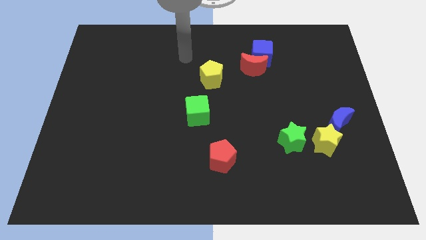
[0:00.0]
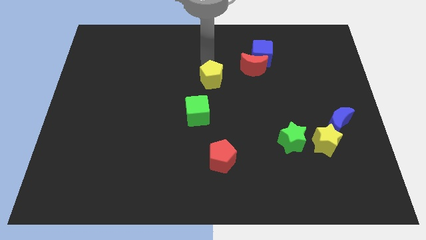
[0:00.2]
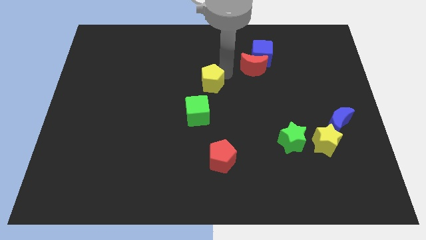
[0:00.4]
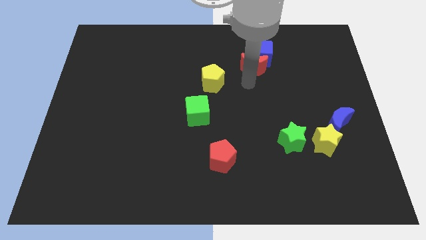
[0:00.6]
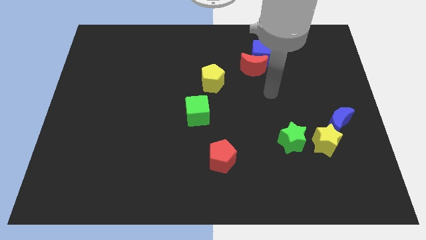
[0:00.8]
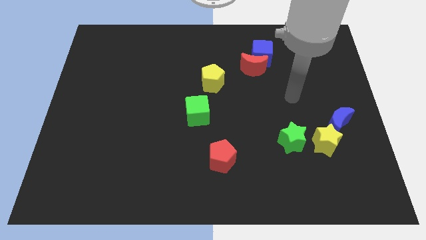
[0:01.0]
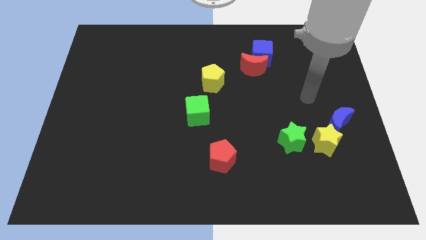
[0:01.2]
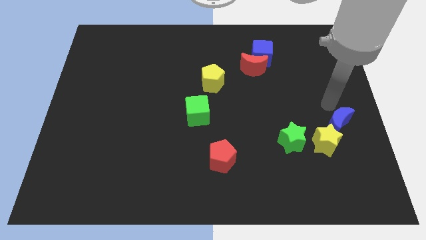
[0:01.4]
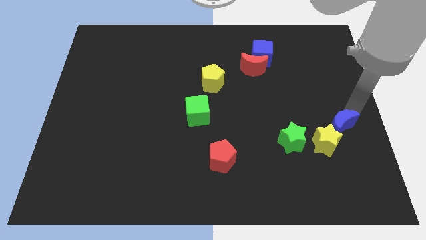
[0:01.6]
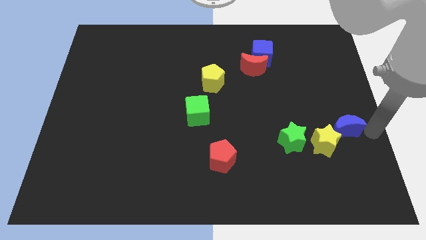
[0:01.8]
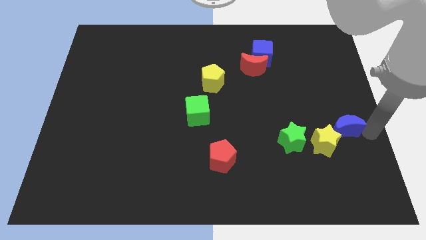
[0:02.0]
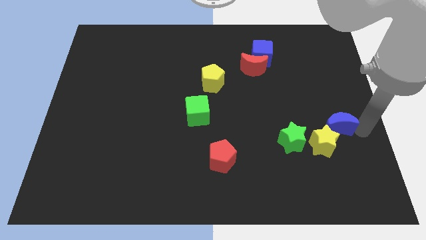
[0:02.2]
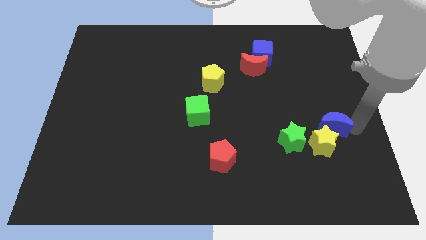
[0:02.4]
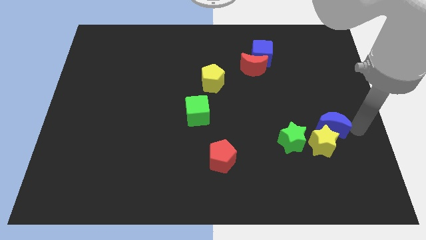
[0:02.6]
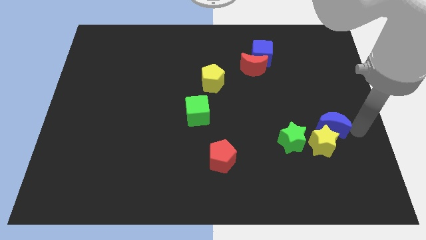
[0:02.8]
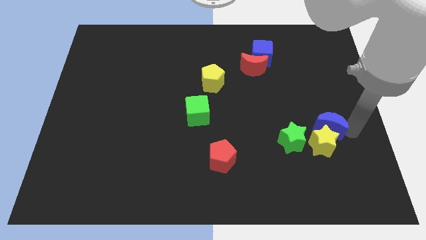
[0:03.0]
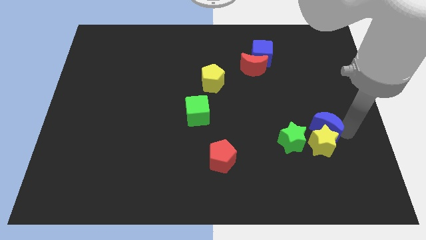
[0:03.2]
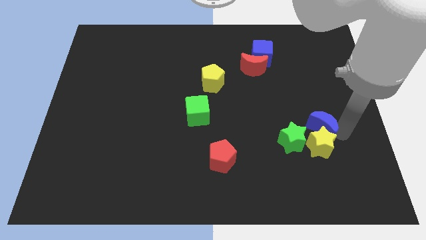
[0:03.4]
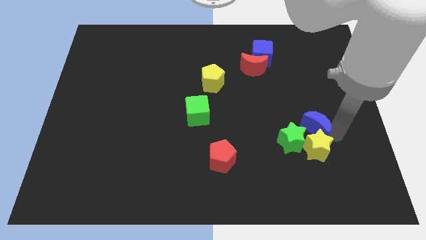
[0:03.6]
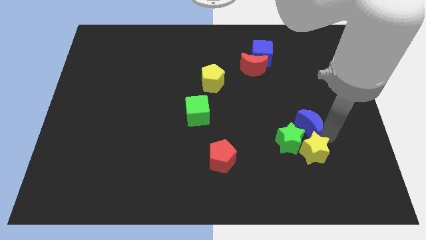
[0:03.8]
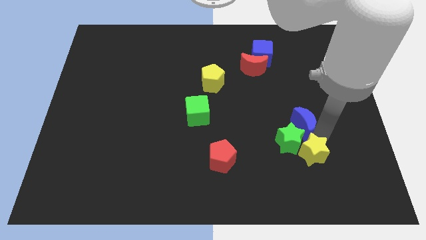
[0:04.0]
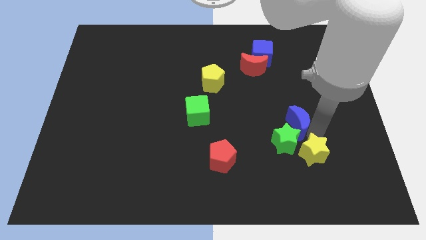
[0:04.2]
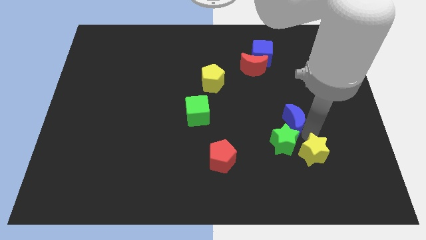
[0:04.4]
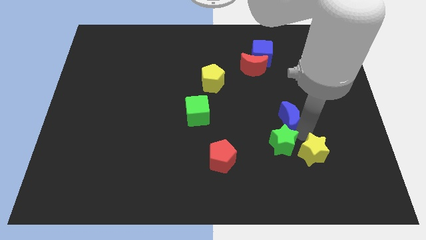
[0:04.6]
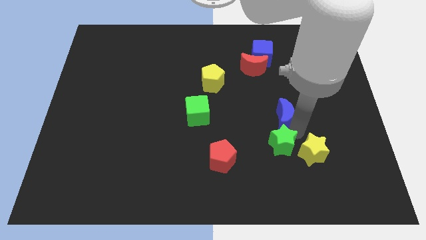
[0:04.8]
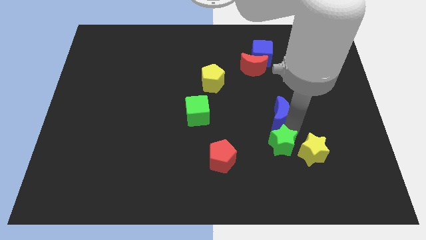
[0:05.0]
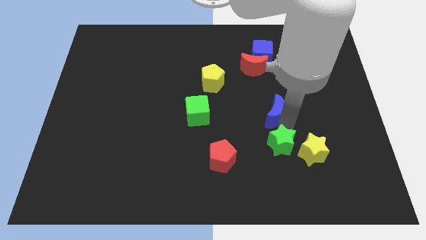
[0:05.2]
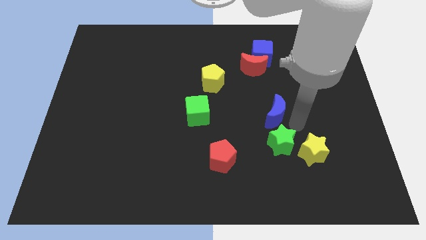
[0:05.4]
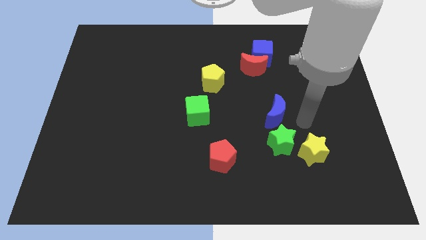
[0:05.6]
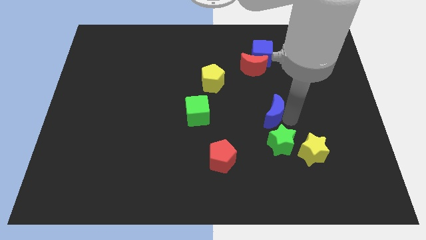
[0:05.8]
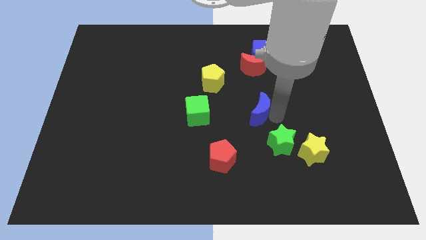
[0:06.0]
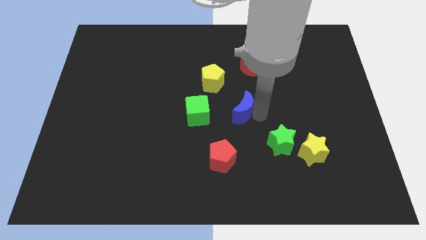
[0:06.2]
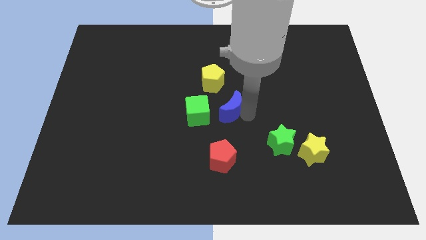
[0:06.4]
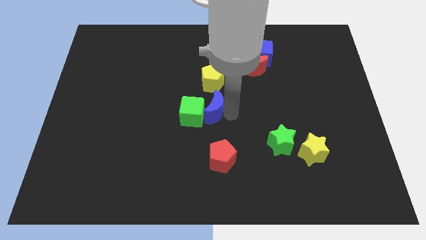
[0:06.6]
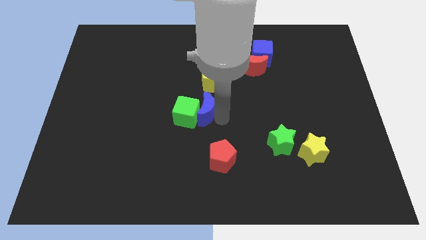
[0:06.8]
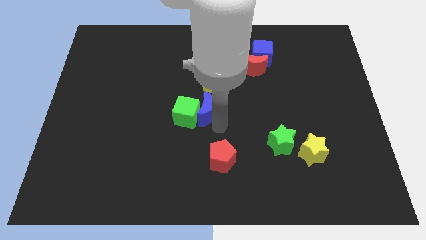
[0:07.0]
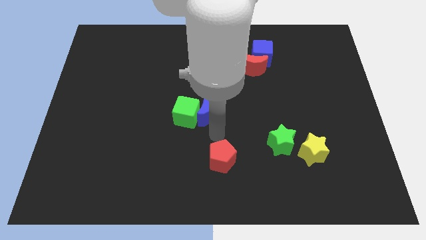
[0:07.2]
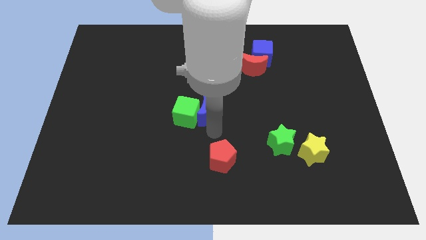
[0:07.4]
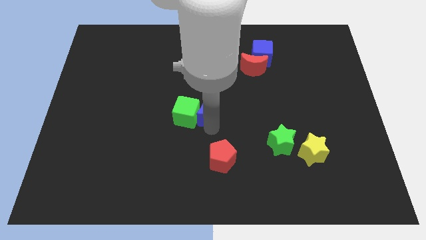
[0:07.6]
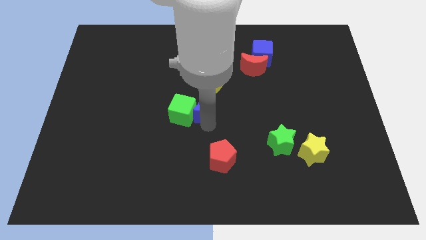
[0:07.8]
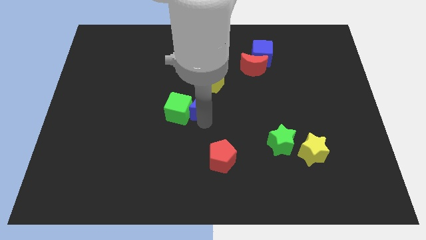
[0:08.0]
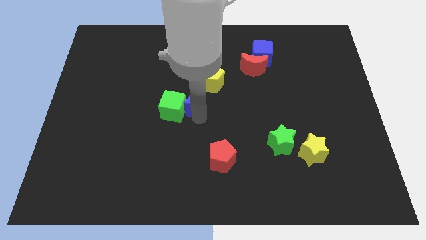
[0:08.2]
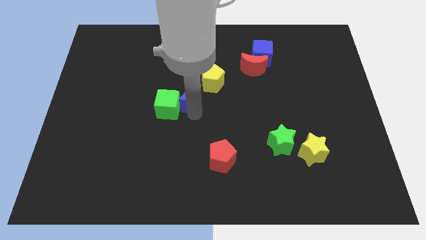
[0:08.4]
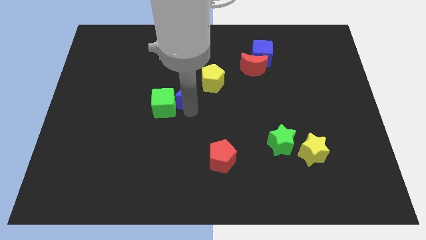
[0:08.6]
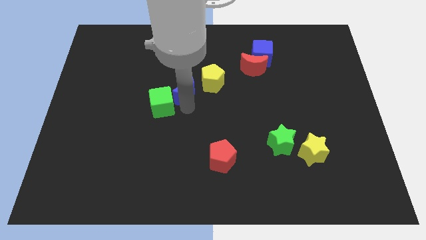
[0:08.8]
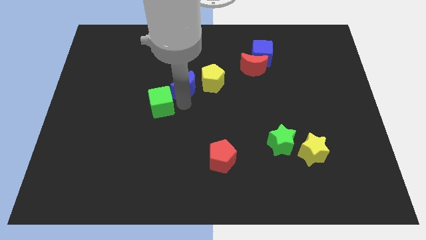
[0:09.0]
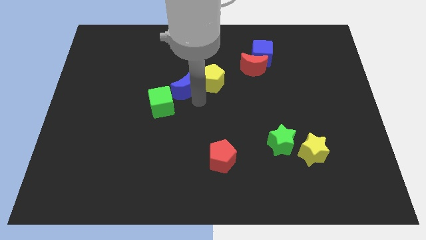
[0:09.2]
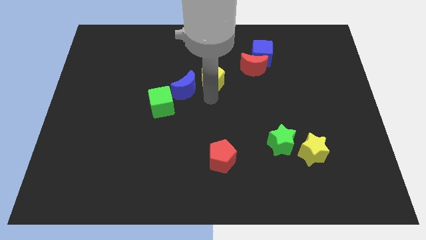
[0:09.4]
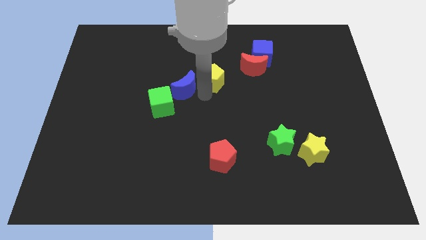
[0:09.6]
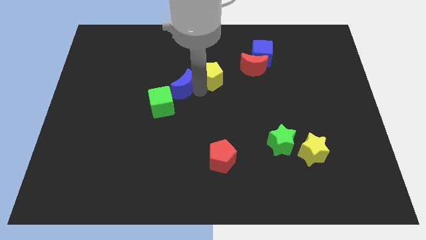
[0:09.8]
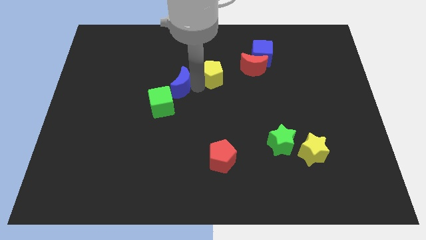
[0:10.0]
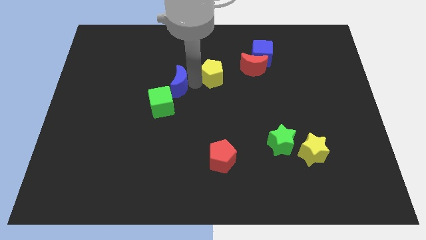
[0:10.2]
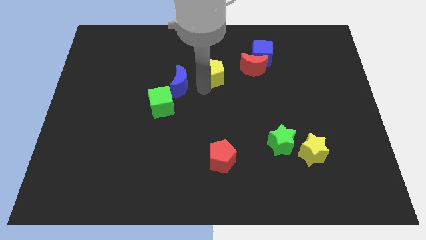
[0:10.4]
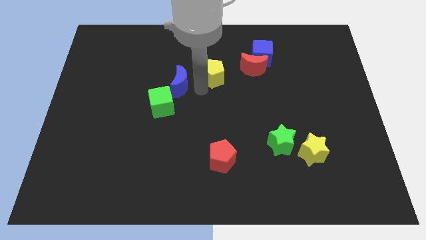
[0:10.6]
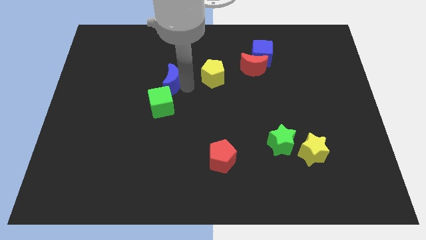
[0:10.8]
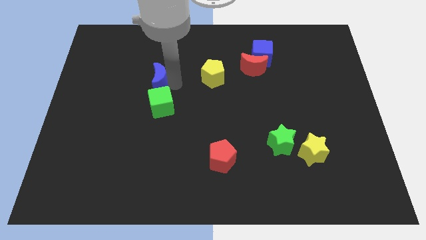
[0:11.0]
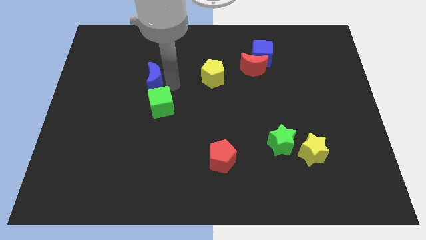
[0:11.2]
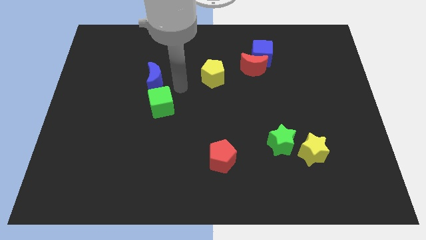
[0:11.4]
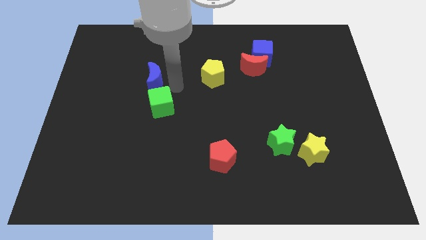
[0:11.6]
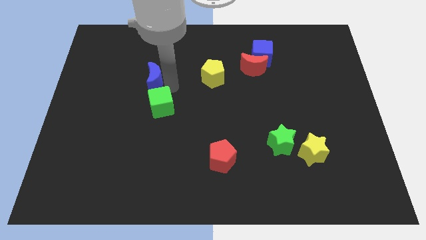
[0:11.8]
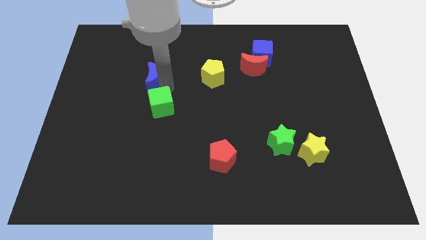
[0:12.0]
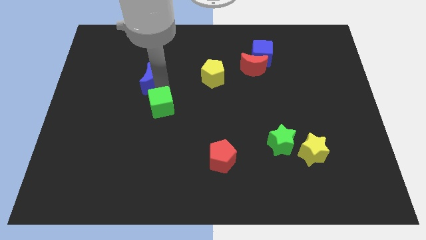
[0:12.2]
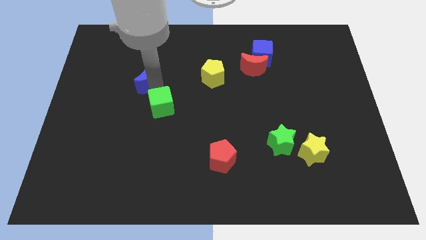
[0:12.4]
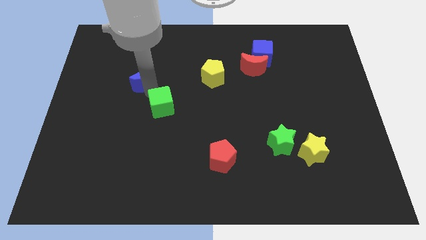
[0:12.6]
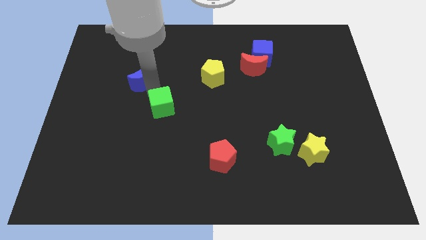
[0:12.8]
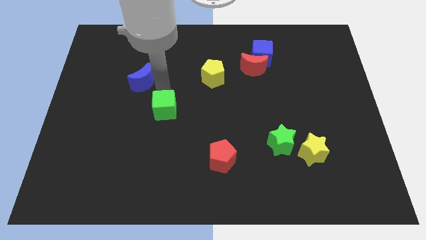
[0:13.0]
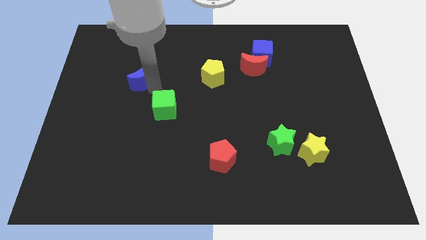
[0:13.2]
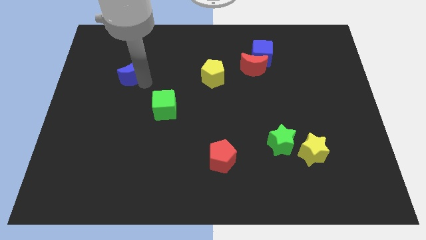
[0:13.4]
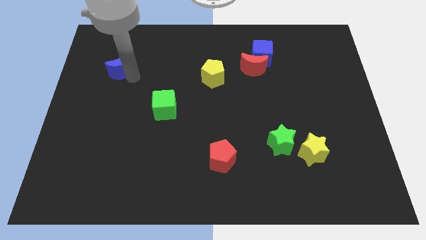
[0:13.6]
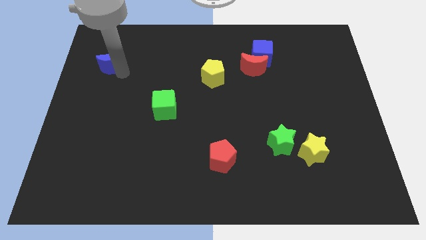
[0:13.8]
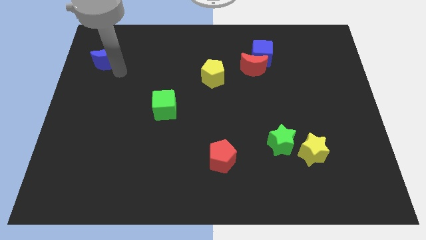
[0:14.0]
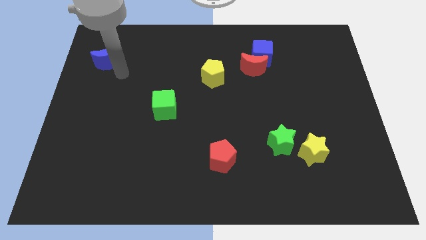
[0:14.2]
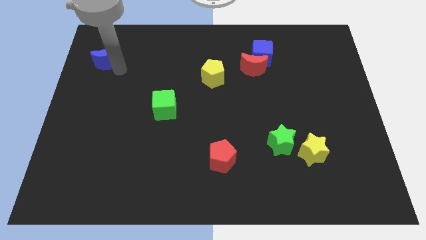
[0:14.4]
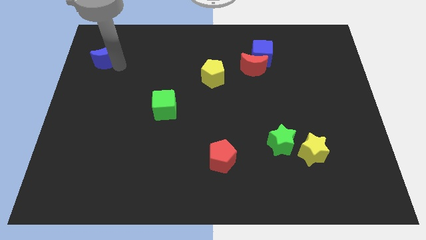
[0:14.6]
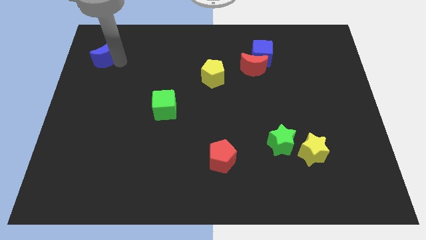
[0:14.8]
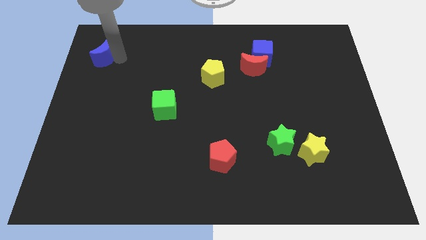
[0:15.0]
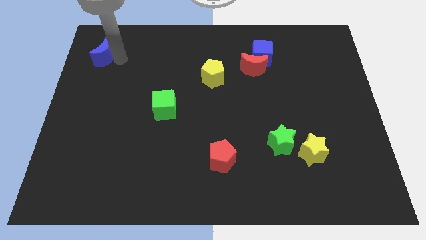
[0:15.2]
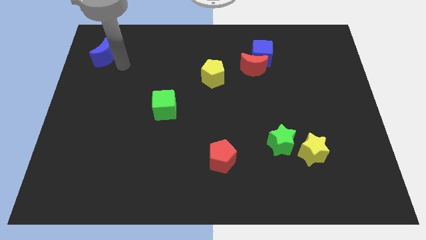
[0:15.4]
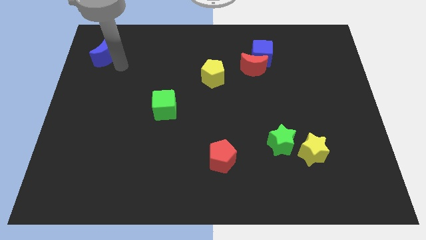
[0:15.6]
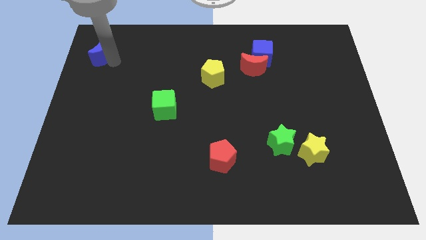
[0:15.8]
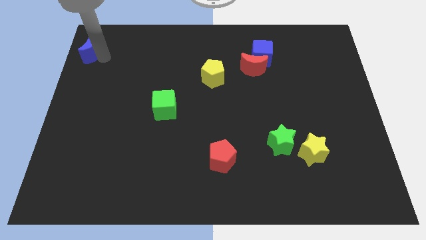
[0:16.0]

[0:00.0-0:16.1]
slide the blue moon to the top left corner
